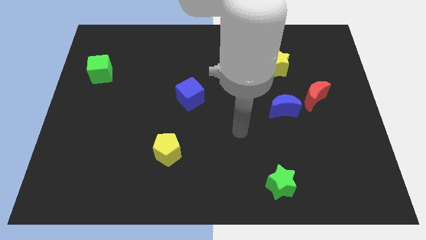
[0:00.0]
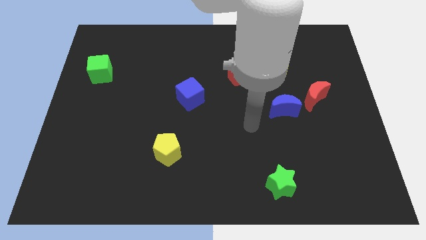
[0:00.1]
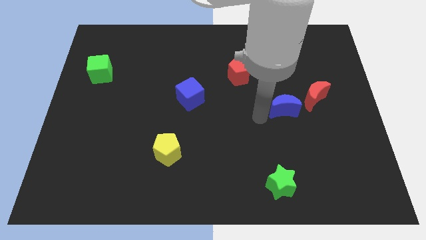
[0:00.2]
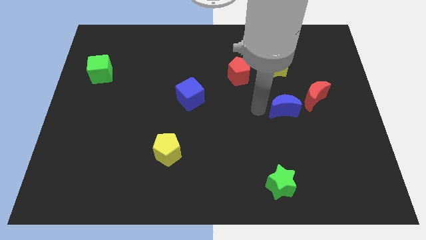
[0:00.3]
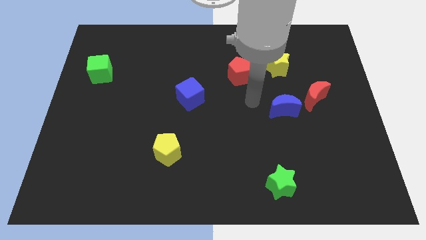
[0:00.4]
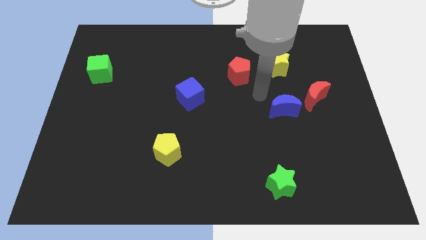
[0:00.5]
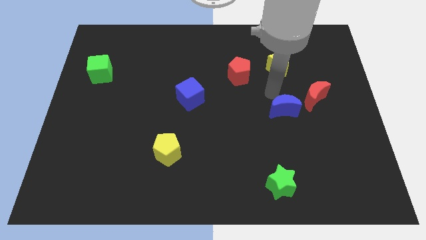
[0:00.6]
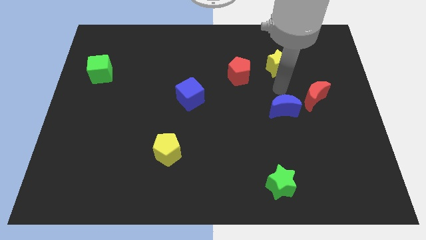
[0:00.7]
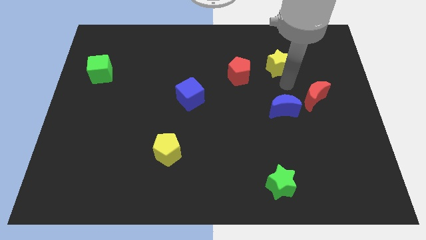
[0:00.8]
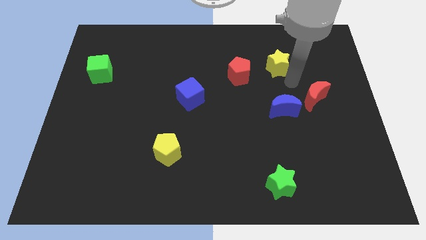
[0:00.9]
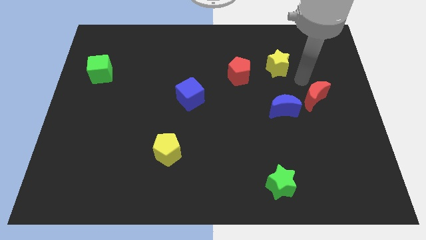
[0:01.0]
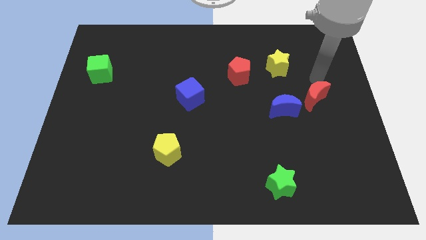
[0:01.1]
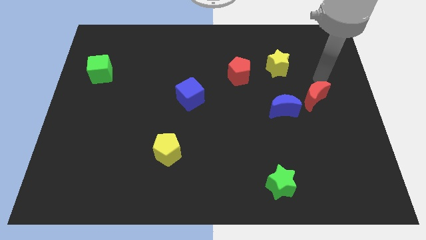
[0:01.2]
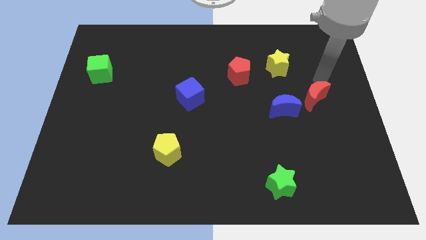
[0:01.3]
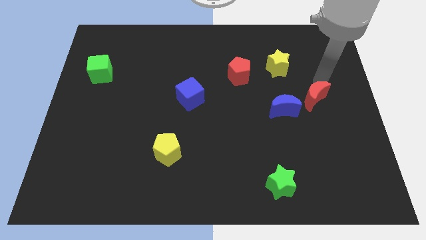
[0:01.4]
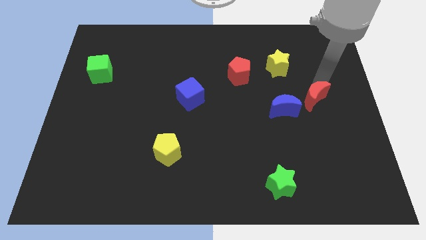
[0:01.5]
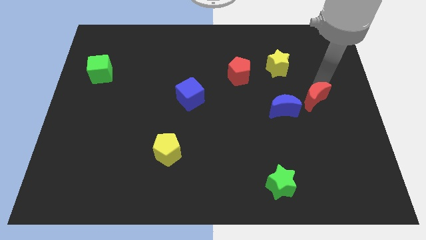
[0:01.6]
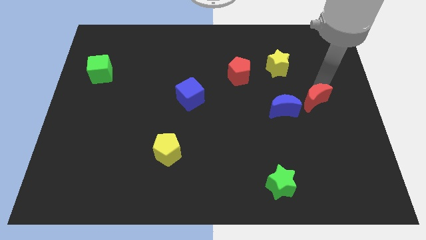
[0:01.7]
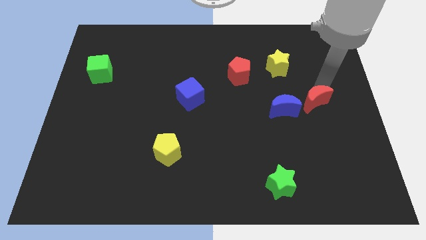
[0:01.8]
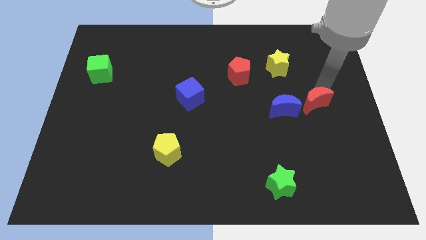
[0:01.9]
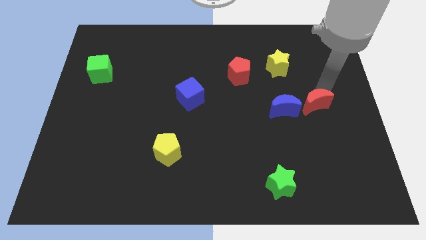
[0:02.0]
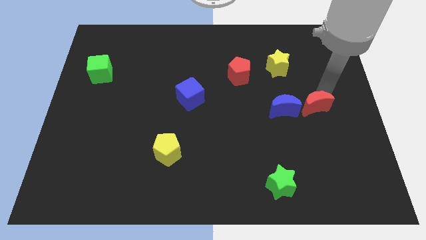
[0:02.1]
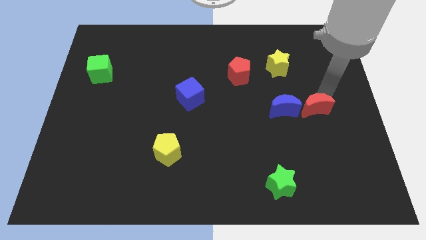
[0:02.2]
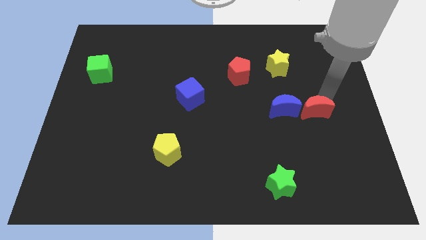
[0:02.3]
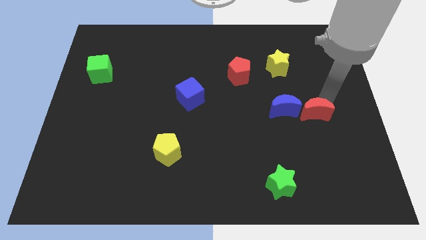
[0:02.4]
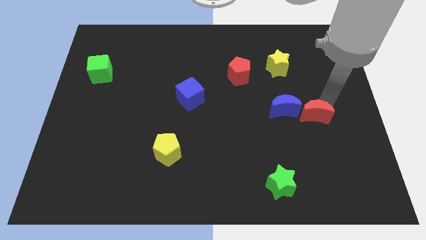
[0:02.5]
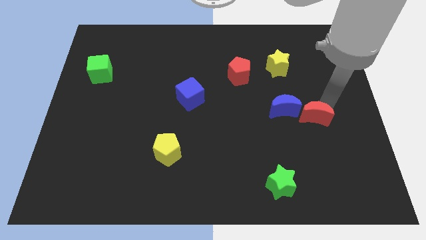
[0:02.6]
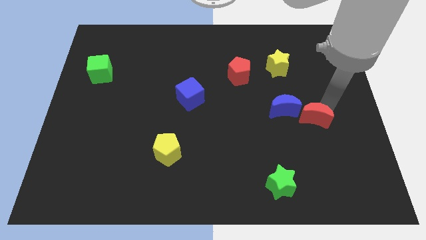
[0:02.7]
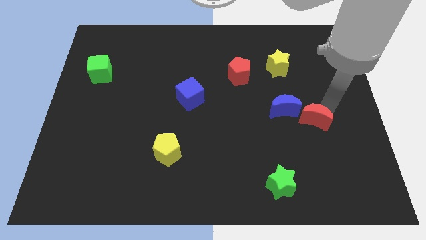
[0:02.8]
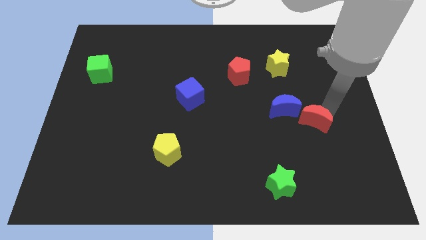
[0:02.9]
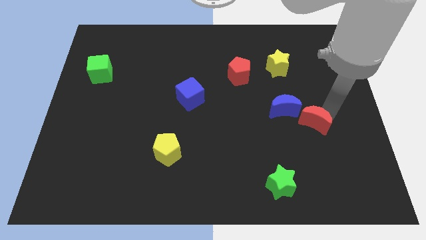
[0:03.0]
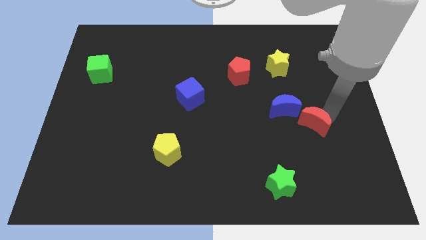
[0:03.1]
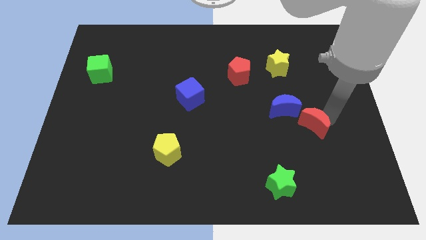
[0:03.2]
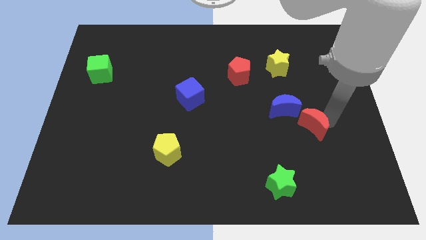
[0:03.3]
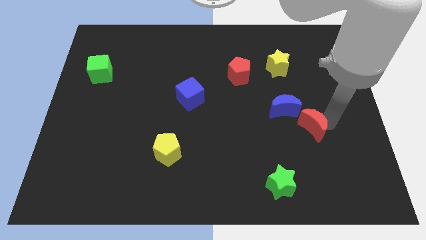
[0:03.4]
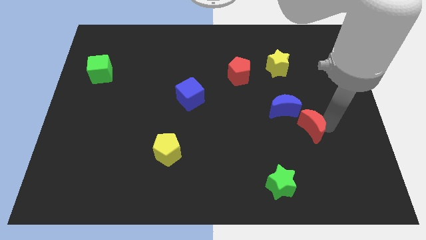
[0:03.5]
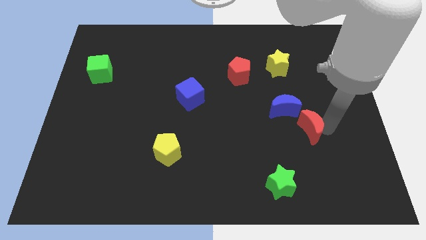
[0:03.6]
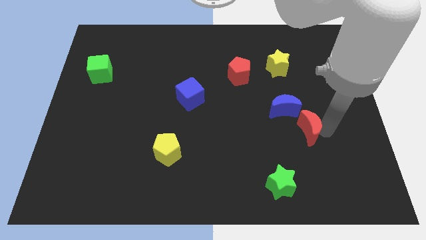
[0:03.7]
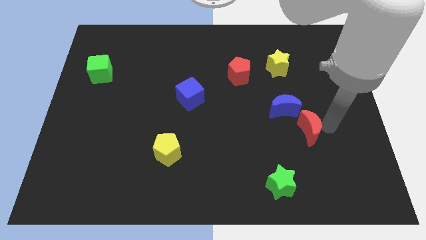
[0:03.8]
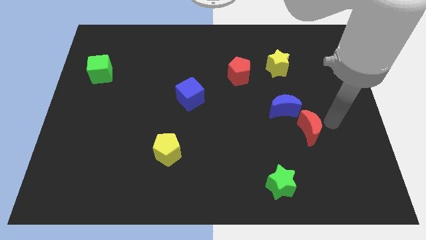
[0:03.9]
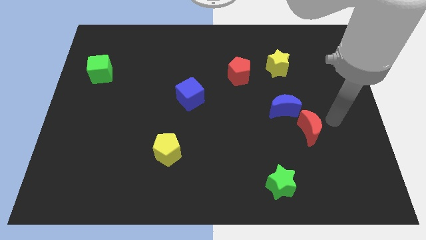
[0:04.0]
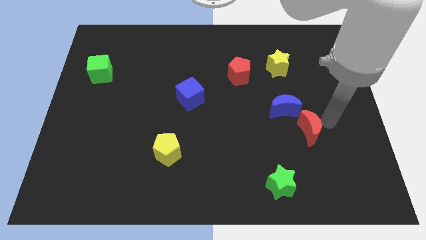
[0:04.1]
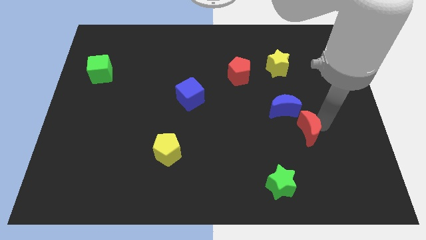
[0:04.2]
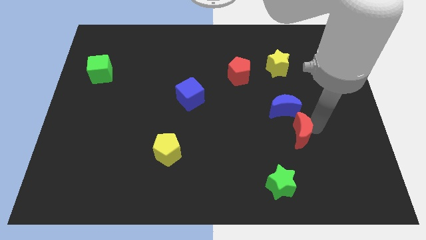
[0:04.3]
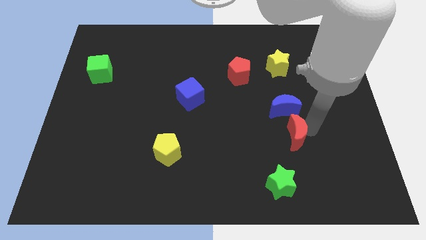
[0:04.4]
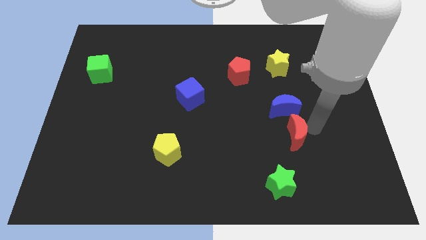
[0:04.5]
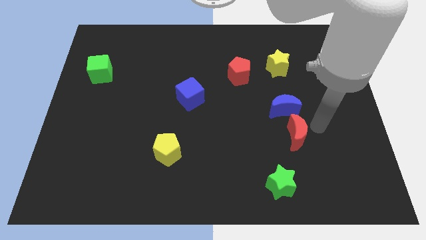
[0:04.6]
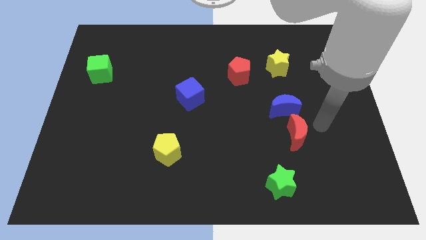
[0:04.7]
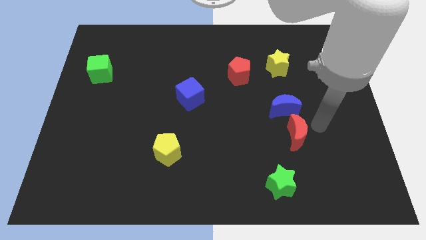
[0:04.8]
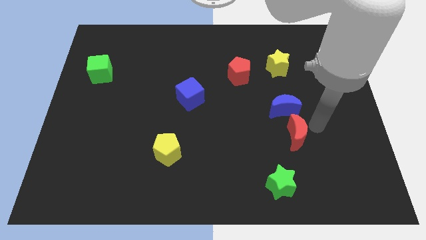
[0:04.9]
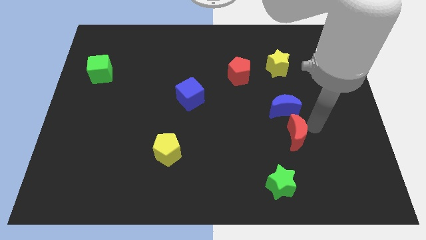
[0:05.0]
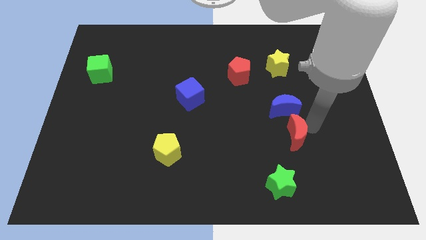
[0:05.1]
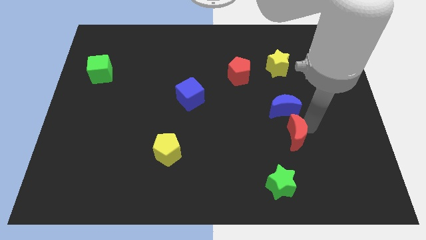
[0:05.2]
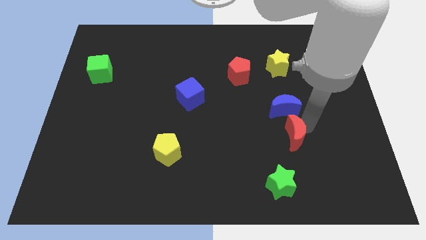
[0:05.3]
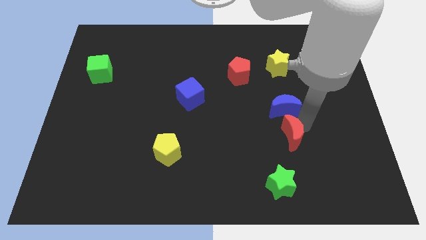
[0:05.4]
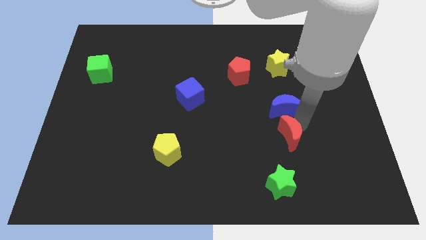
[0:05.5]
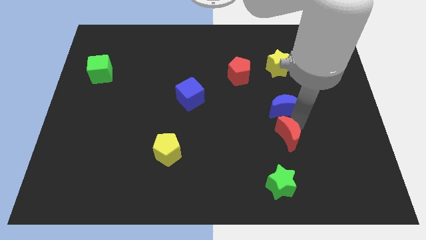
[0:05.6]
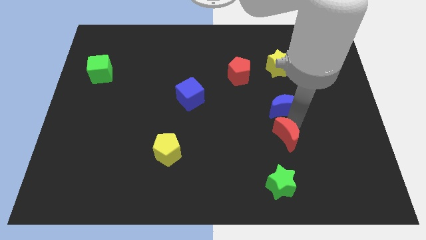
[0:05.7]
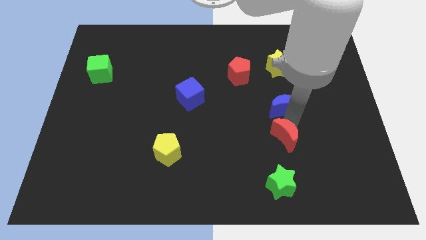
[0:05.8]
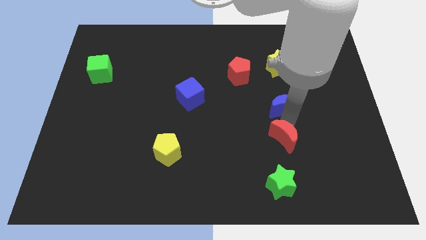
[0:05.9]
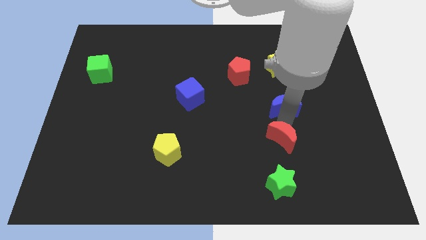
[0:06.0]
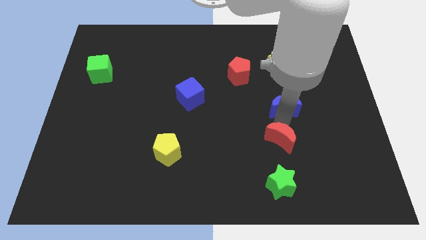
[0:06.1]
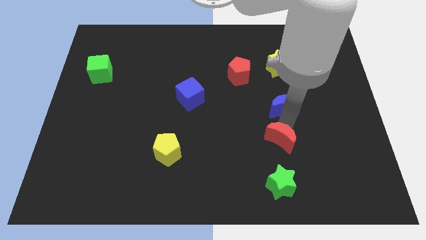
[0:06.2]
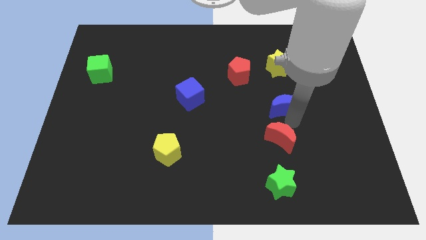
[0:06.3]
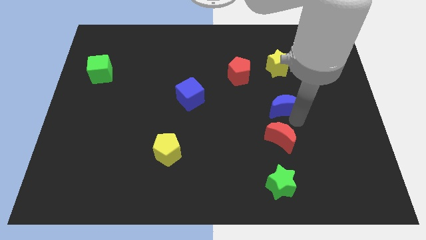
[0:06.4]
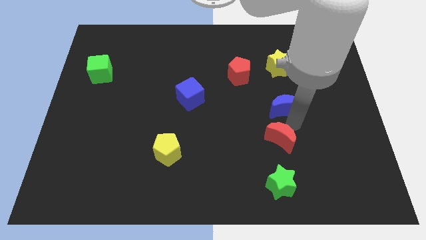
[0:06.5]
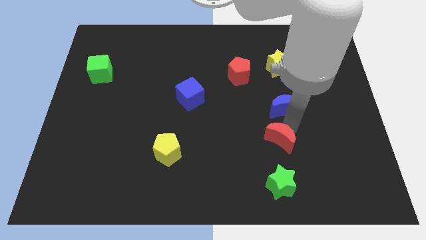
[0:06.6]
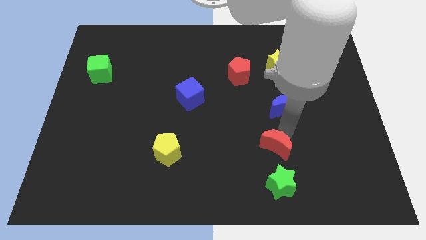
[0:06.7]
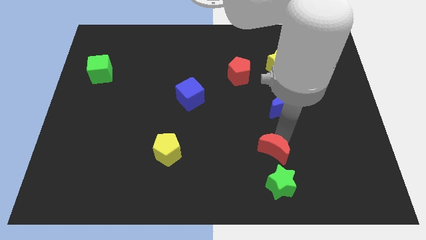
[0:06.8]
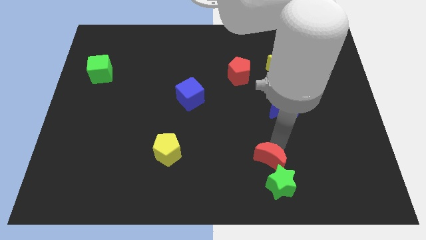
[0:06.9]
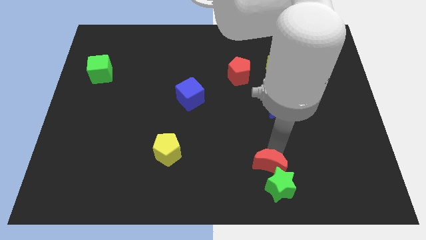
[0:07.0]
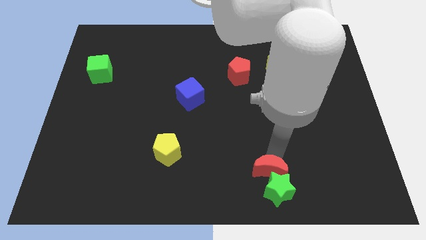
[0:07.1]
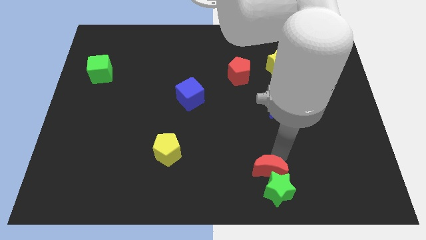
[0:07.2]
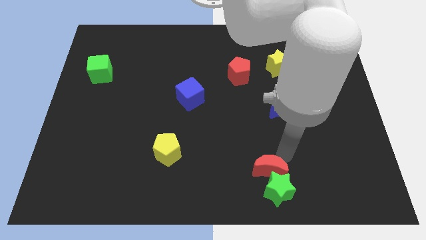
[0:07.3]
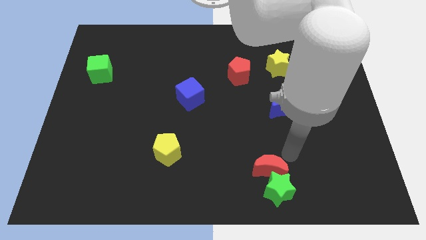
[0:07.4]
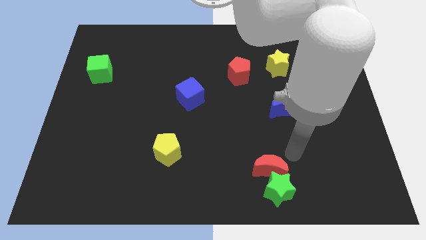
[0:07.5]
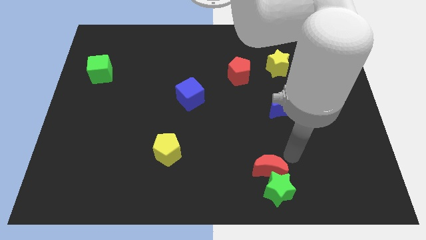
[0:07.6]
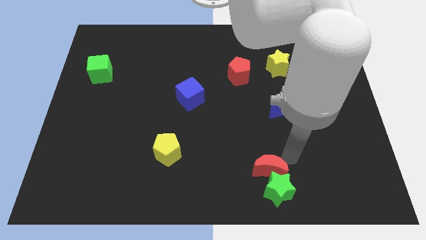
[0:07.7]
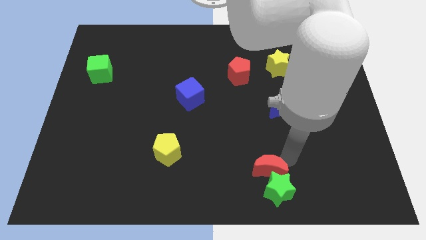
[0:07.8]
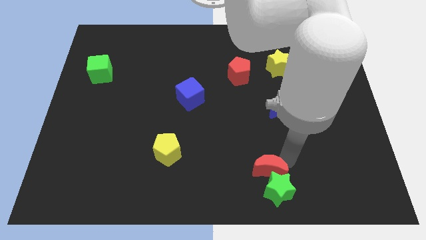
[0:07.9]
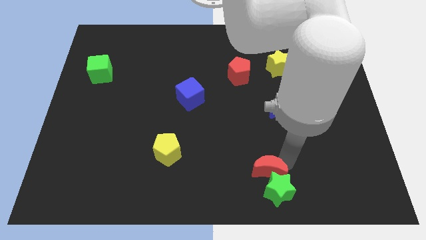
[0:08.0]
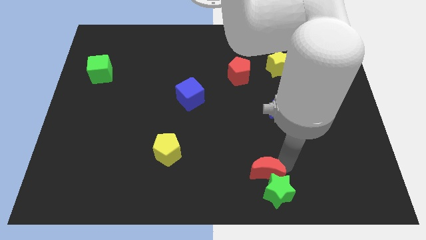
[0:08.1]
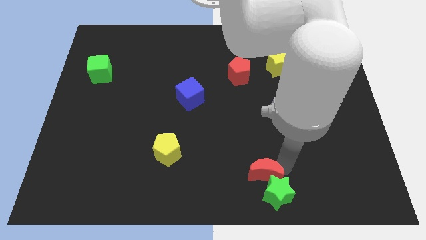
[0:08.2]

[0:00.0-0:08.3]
slide the red moon to the bottom
